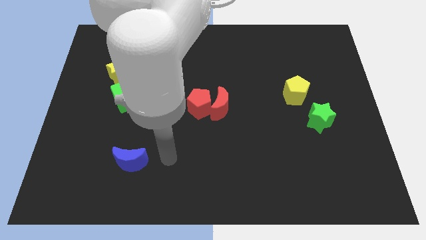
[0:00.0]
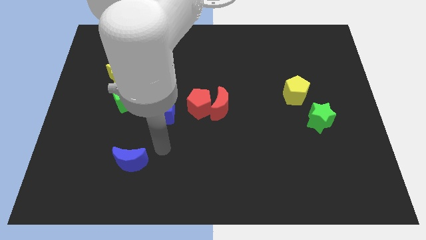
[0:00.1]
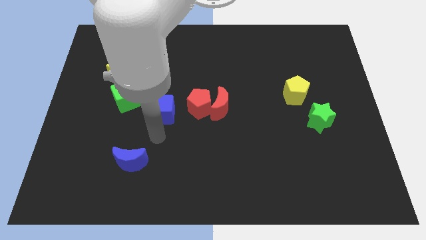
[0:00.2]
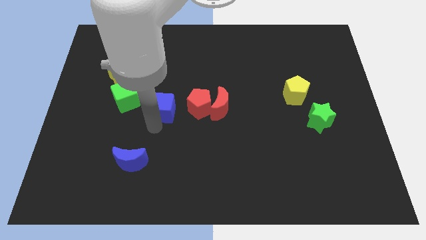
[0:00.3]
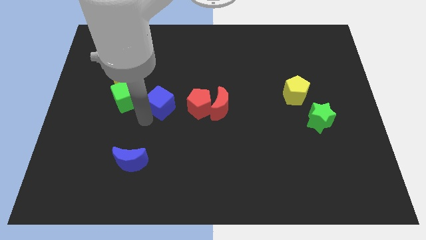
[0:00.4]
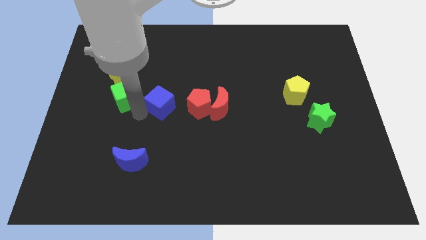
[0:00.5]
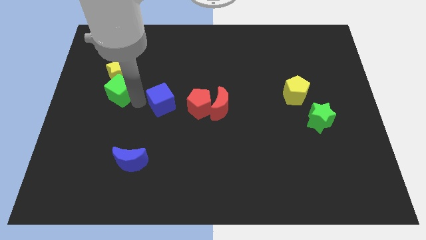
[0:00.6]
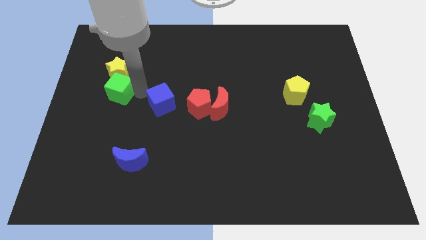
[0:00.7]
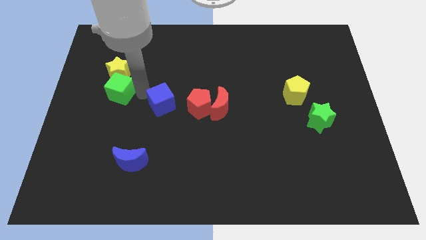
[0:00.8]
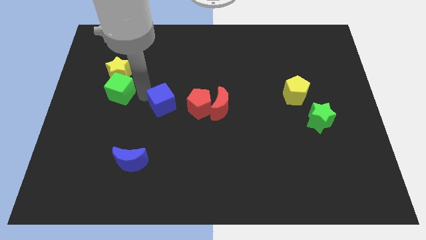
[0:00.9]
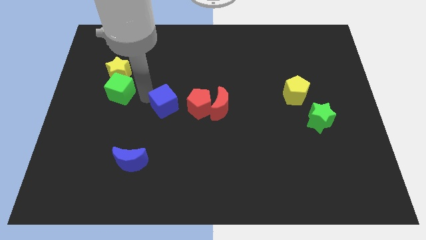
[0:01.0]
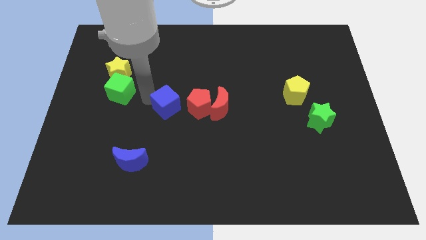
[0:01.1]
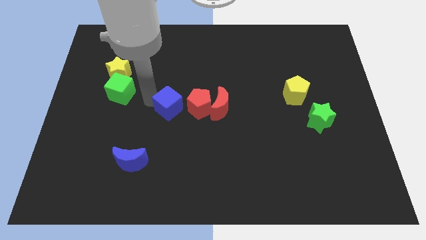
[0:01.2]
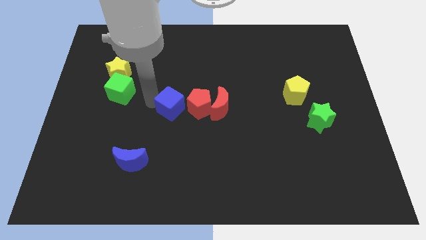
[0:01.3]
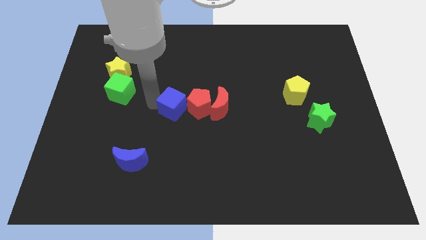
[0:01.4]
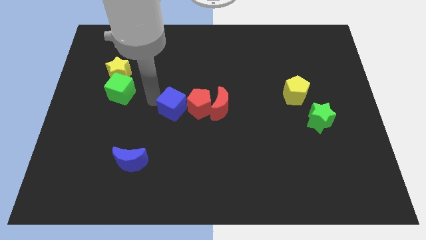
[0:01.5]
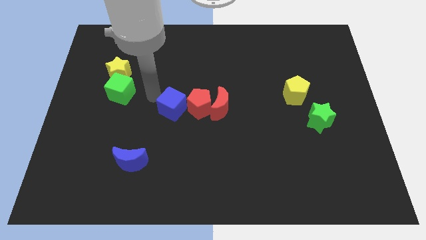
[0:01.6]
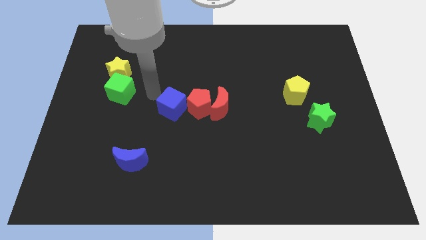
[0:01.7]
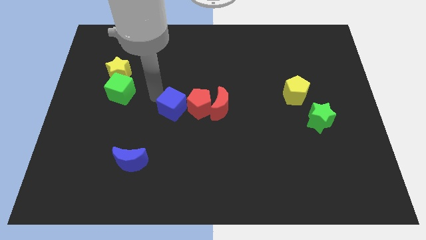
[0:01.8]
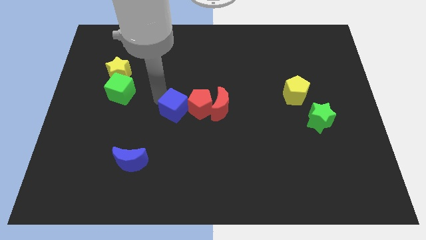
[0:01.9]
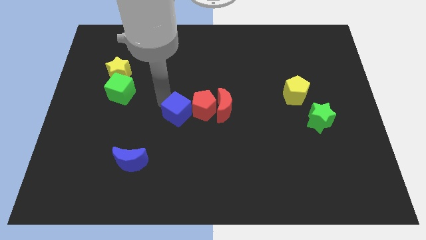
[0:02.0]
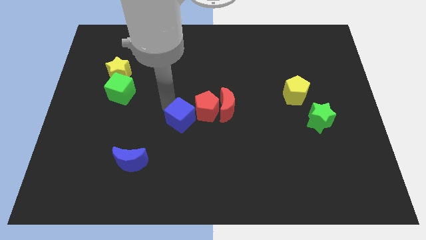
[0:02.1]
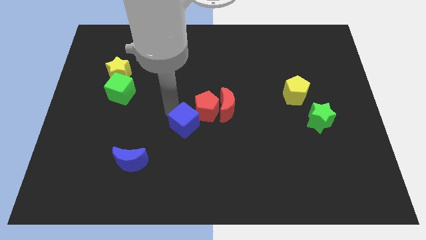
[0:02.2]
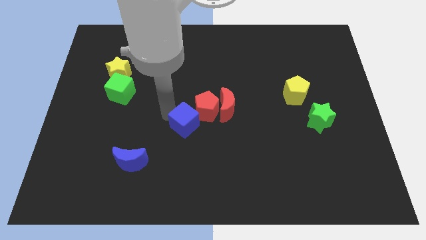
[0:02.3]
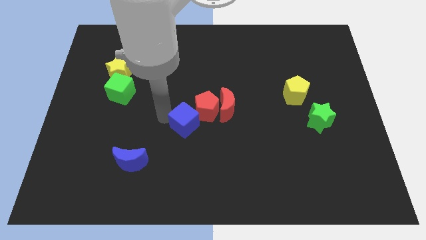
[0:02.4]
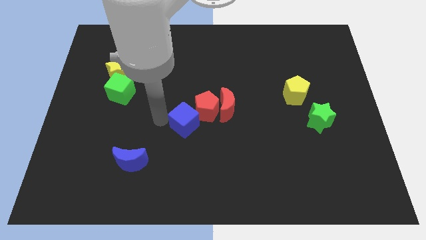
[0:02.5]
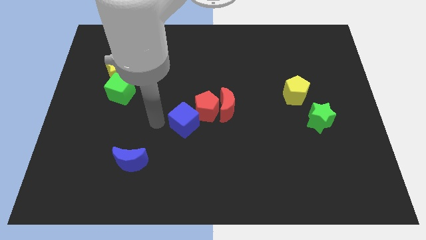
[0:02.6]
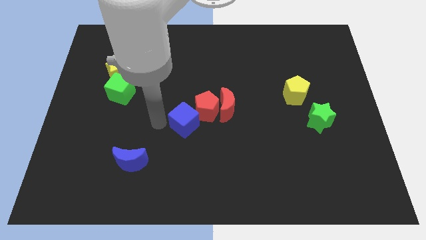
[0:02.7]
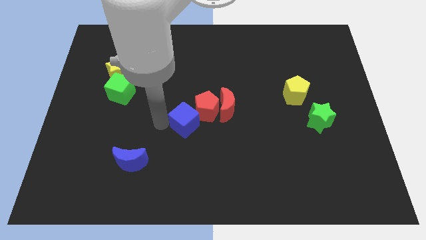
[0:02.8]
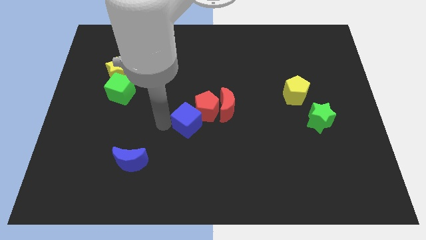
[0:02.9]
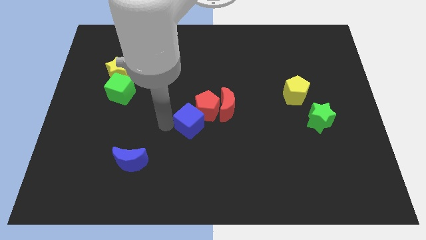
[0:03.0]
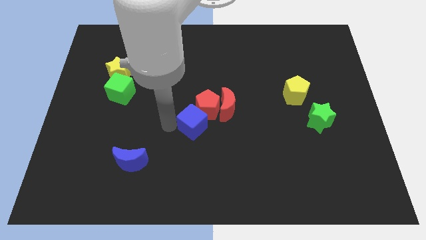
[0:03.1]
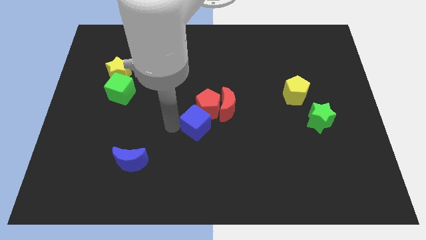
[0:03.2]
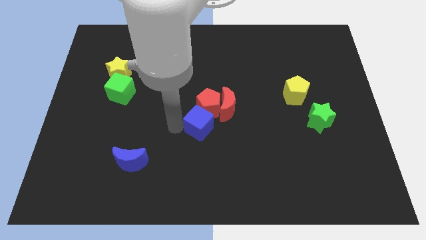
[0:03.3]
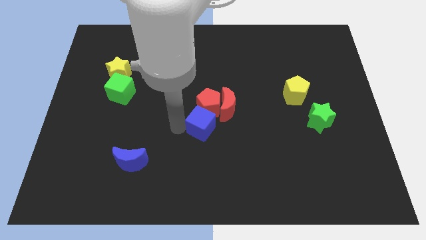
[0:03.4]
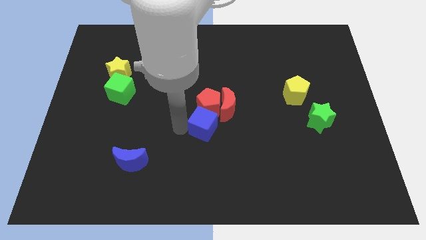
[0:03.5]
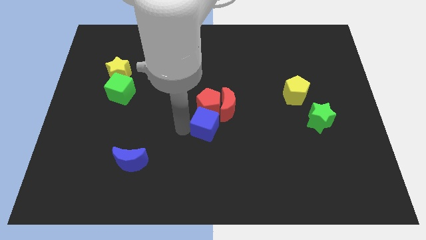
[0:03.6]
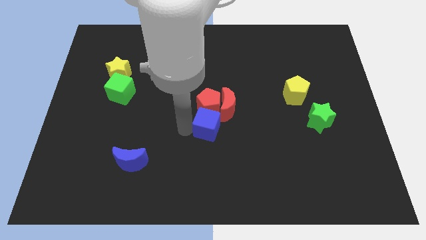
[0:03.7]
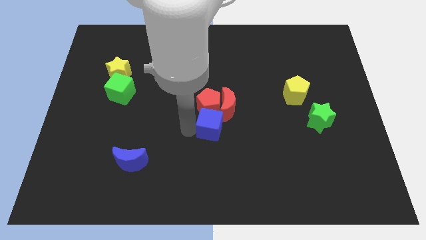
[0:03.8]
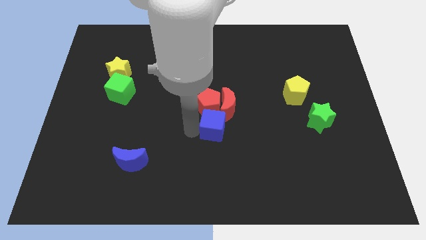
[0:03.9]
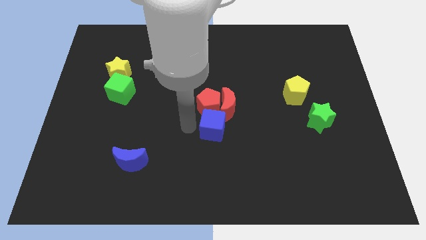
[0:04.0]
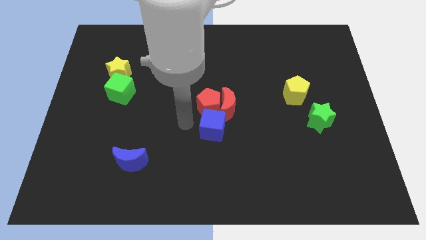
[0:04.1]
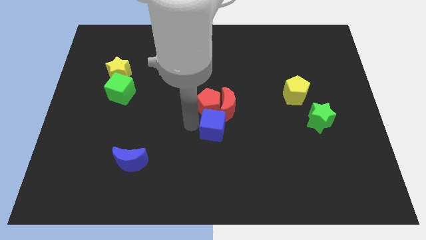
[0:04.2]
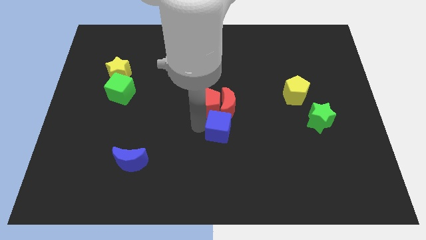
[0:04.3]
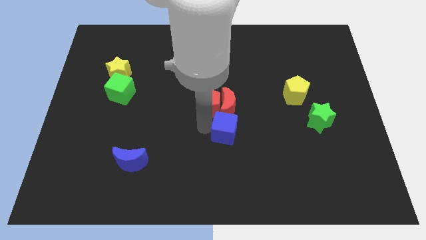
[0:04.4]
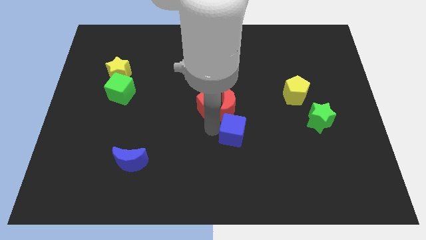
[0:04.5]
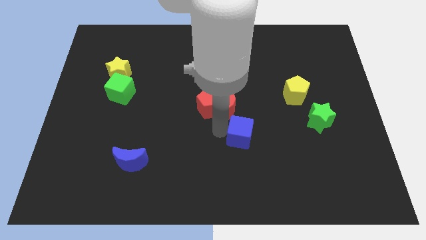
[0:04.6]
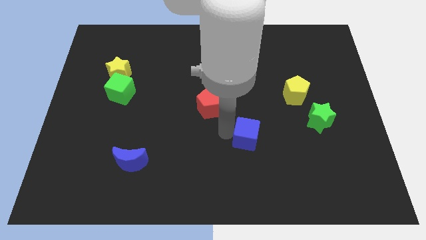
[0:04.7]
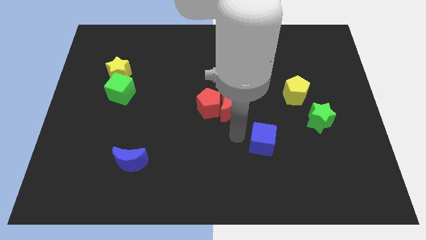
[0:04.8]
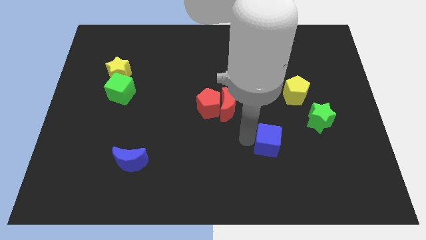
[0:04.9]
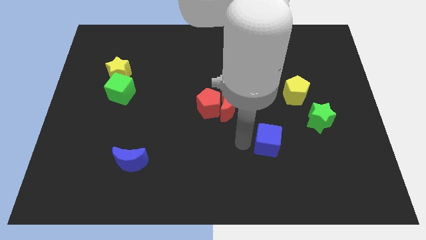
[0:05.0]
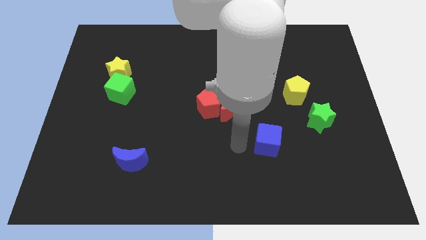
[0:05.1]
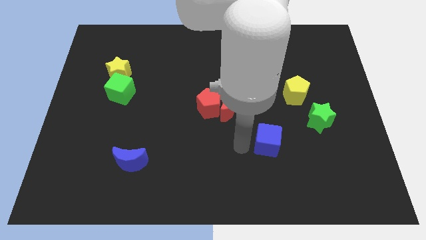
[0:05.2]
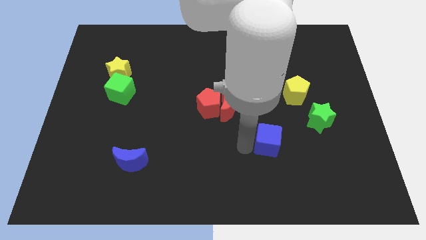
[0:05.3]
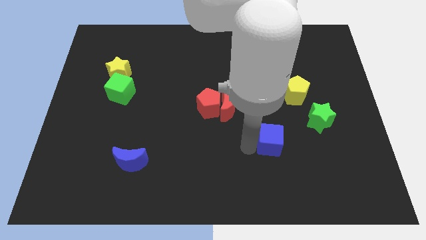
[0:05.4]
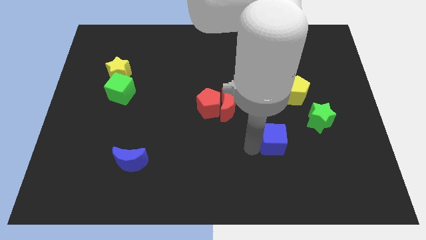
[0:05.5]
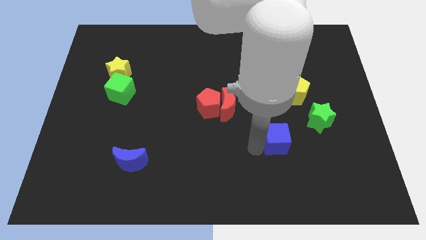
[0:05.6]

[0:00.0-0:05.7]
put the blue cube diagonally down and to the left of the green star
